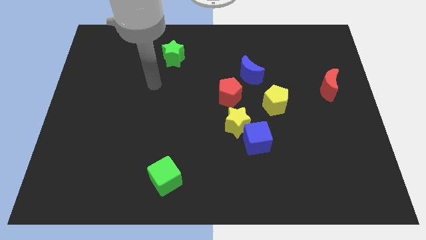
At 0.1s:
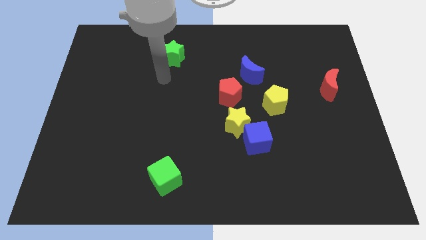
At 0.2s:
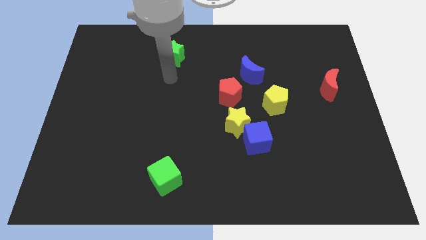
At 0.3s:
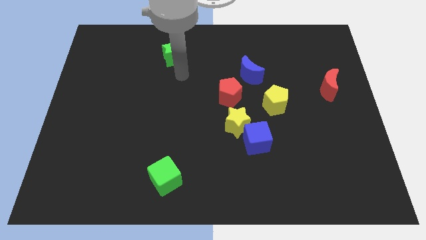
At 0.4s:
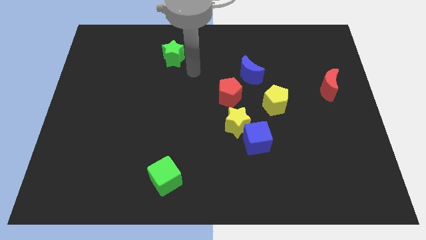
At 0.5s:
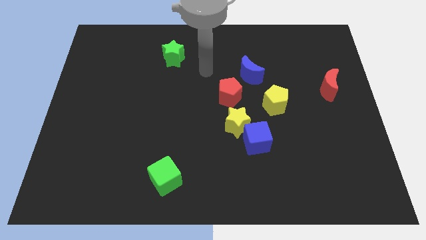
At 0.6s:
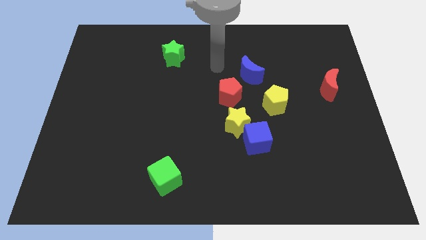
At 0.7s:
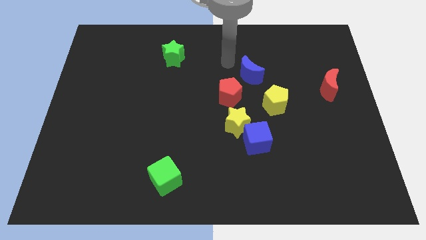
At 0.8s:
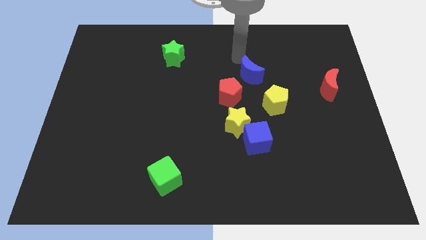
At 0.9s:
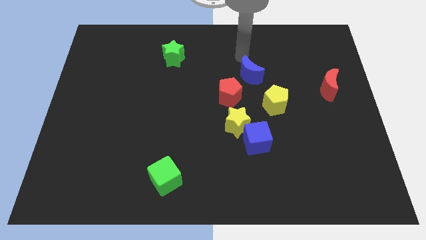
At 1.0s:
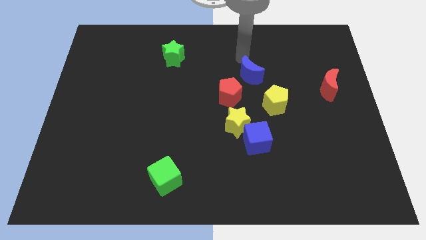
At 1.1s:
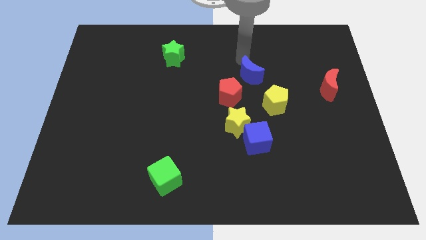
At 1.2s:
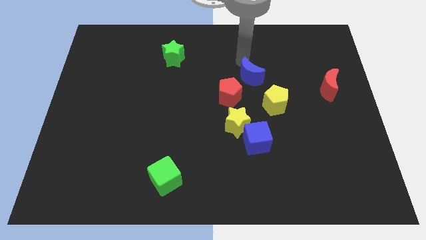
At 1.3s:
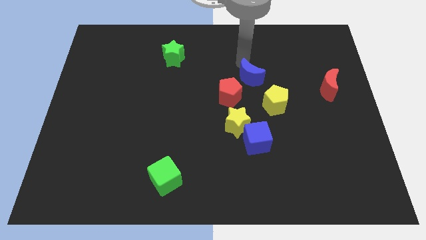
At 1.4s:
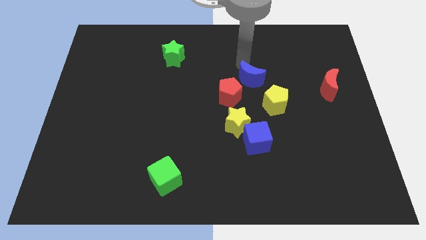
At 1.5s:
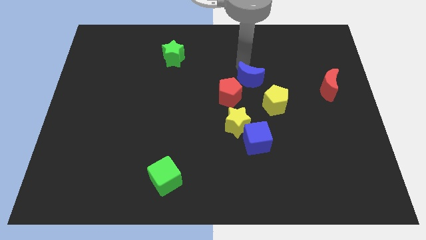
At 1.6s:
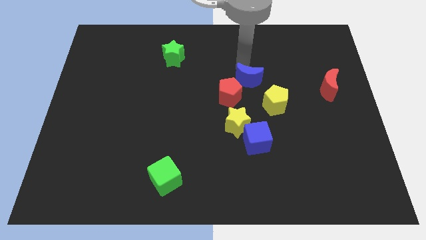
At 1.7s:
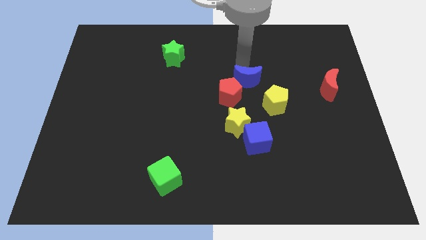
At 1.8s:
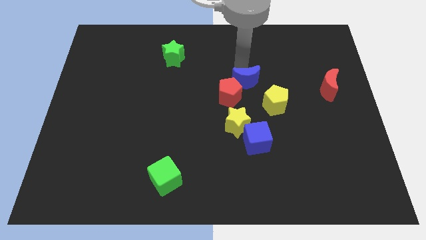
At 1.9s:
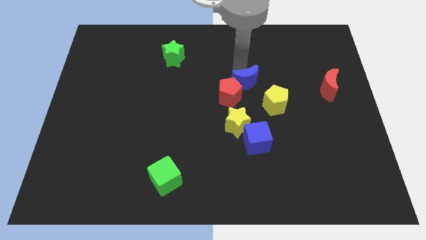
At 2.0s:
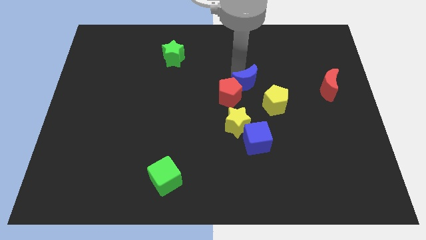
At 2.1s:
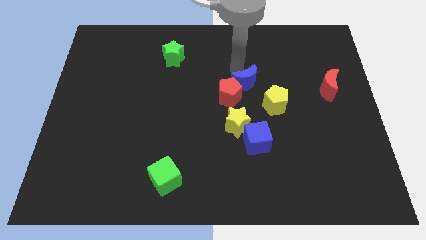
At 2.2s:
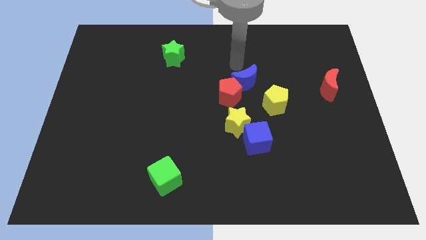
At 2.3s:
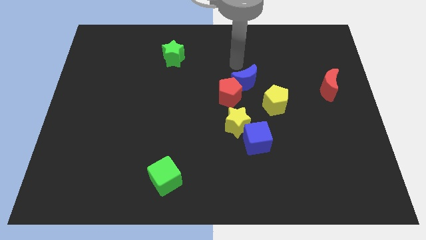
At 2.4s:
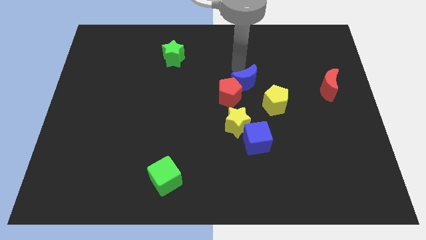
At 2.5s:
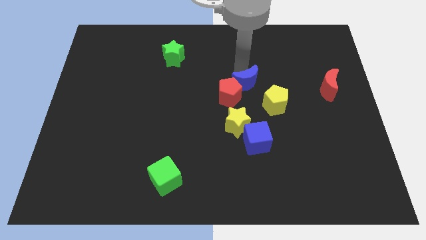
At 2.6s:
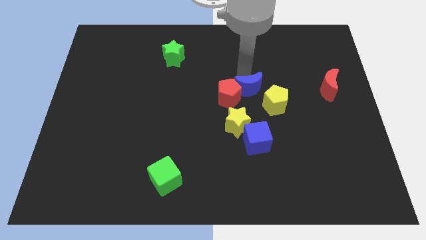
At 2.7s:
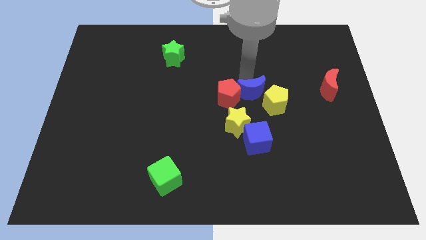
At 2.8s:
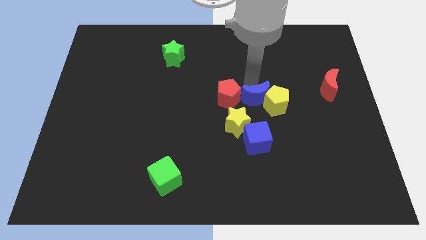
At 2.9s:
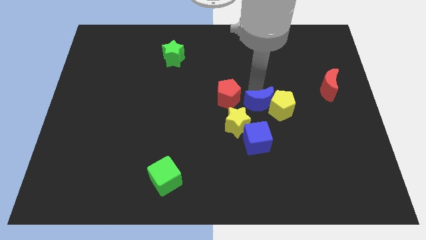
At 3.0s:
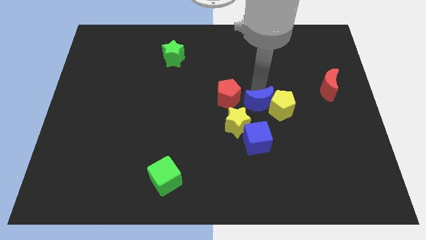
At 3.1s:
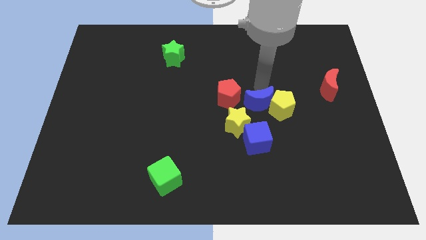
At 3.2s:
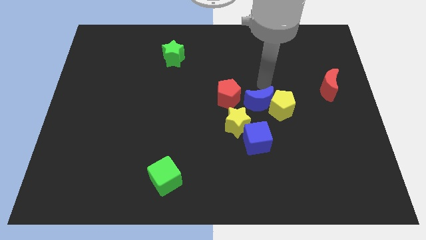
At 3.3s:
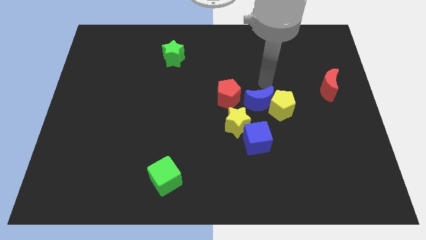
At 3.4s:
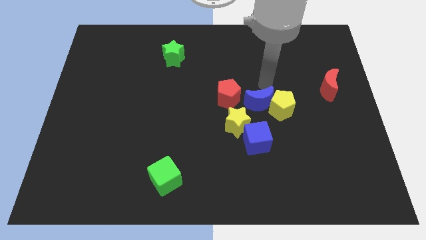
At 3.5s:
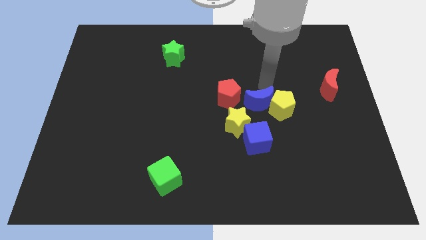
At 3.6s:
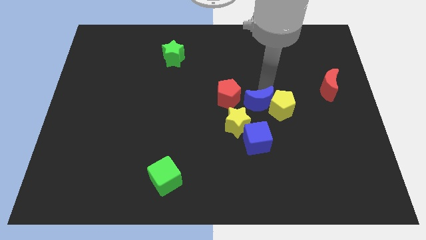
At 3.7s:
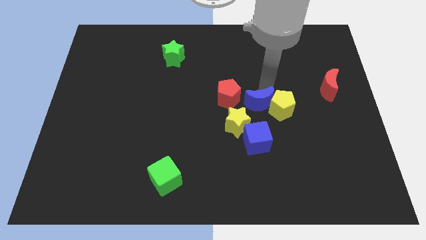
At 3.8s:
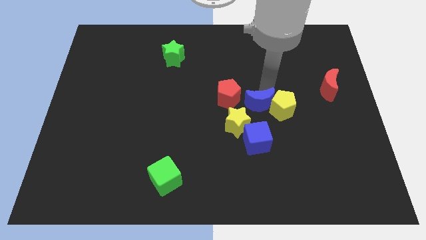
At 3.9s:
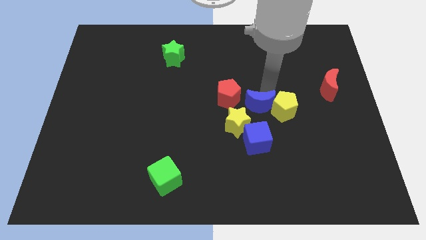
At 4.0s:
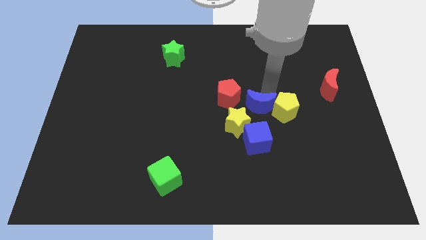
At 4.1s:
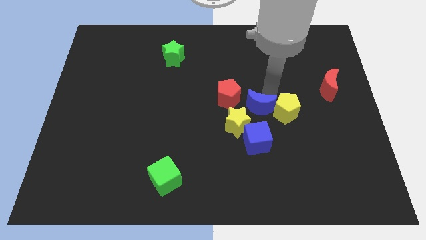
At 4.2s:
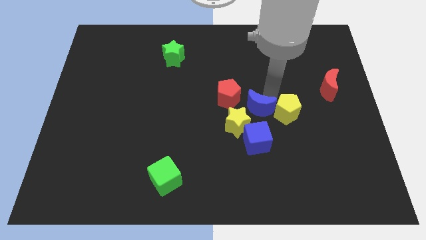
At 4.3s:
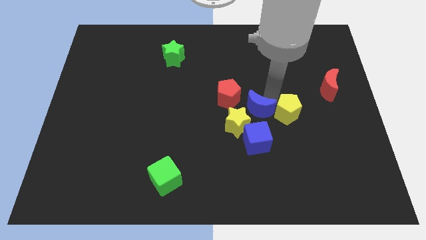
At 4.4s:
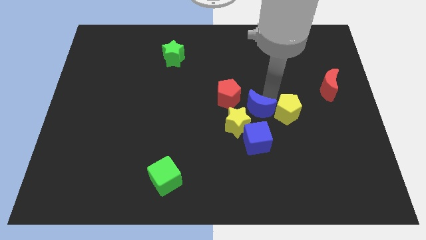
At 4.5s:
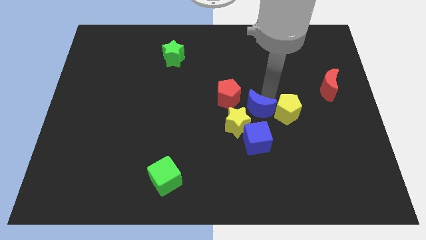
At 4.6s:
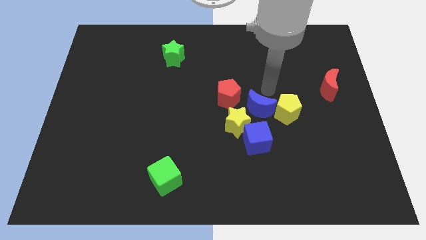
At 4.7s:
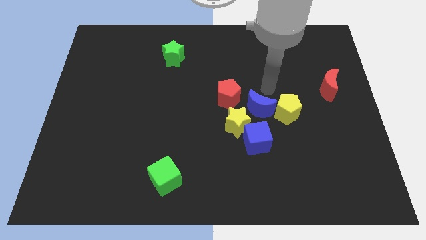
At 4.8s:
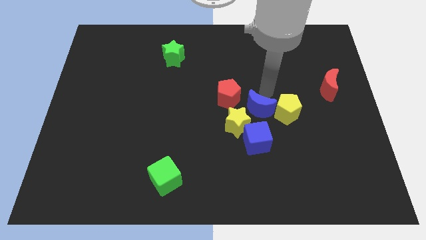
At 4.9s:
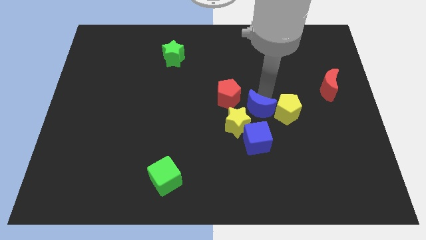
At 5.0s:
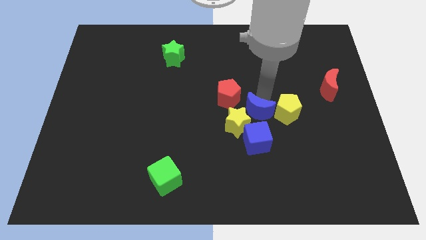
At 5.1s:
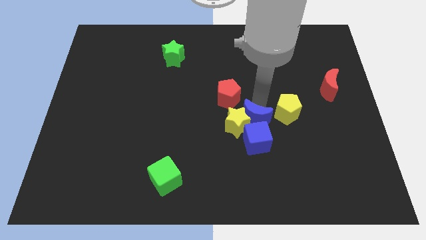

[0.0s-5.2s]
move the blue moon next to the blue cube

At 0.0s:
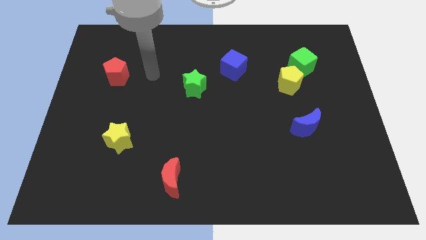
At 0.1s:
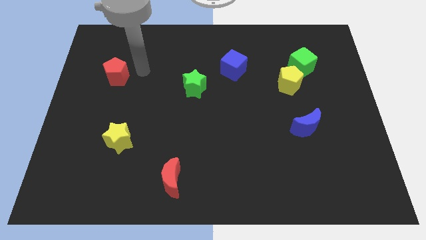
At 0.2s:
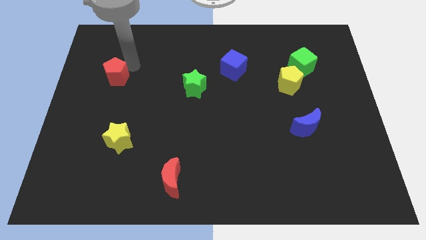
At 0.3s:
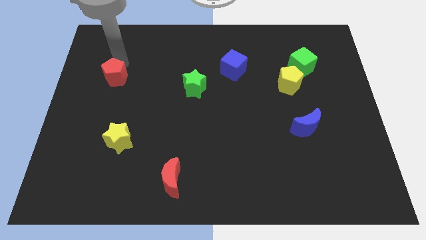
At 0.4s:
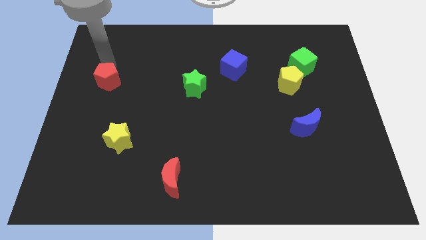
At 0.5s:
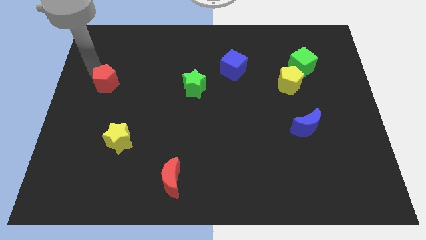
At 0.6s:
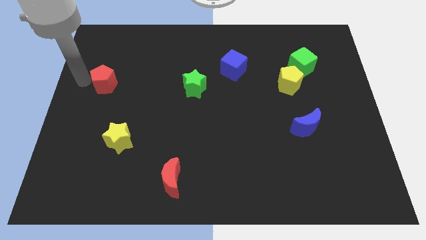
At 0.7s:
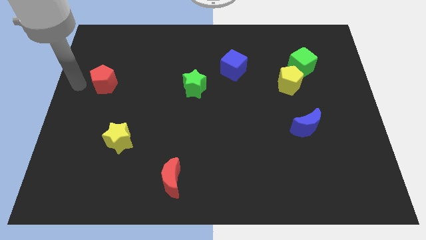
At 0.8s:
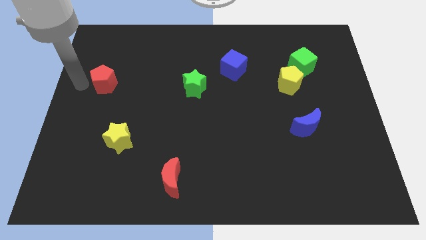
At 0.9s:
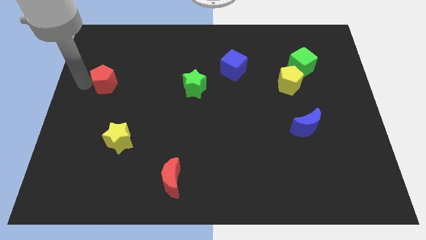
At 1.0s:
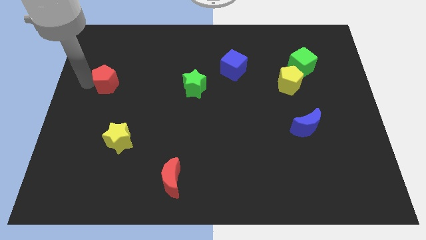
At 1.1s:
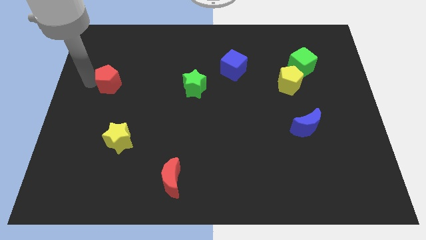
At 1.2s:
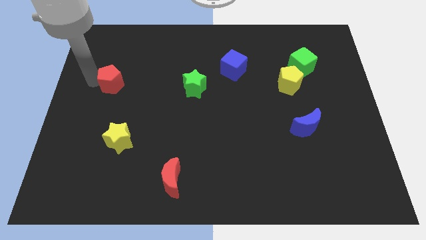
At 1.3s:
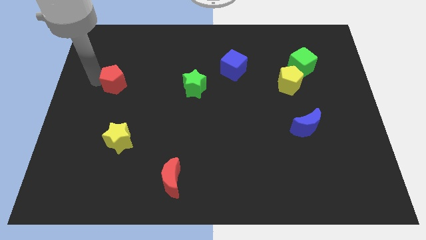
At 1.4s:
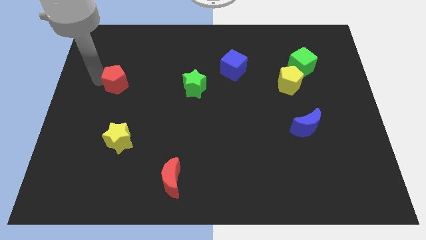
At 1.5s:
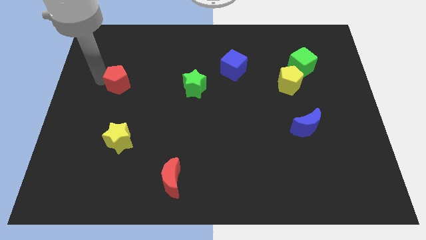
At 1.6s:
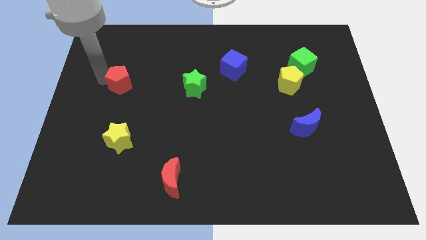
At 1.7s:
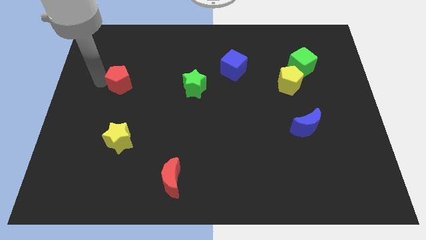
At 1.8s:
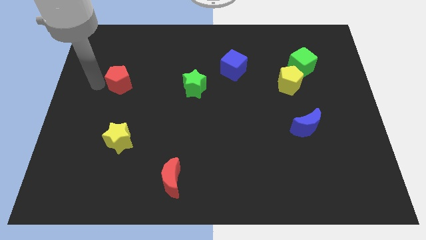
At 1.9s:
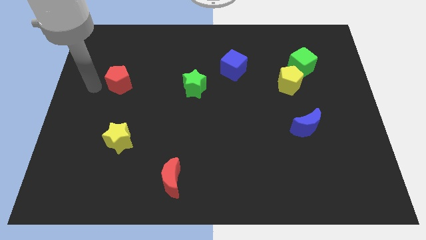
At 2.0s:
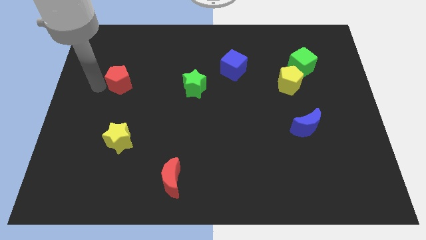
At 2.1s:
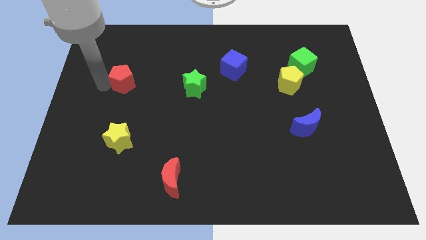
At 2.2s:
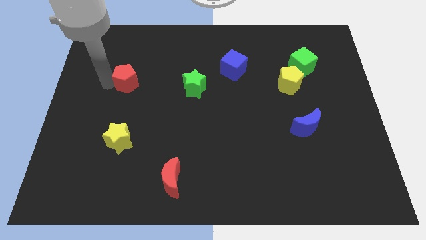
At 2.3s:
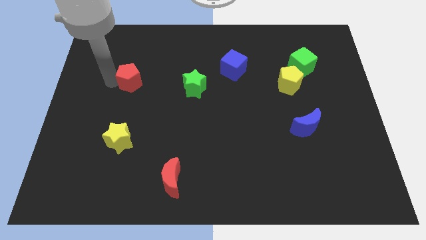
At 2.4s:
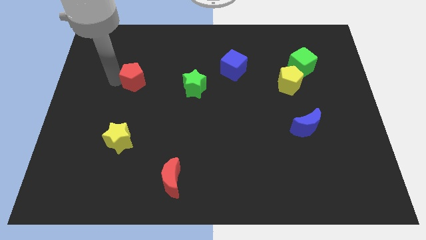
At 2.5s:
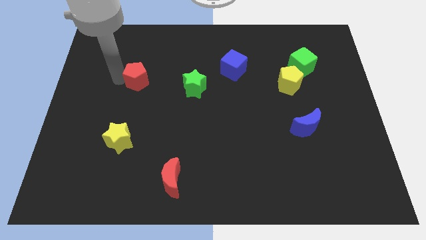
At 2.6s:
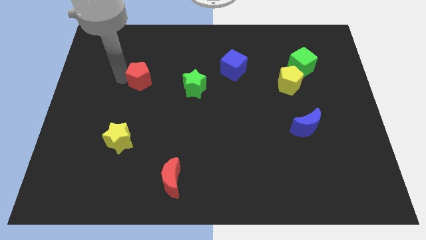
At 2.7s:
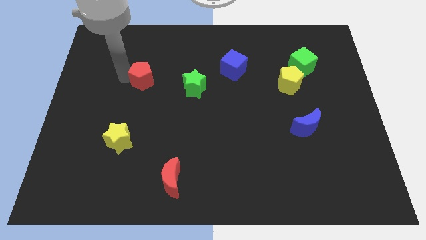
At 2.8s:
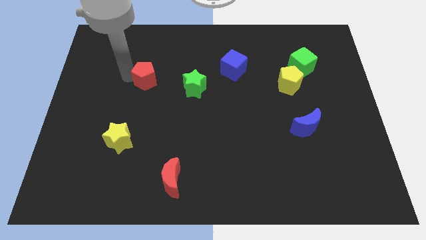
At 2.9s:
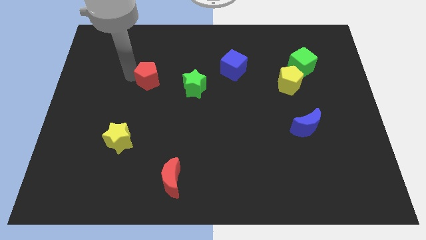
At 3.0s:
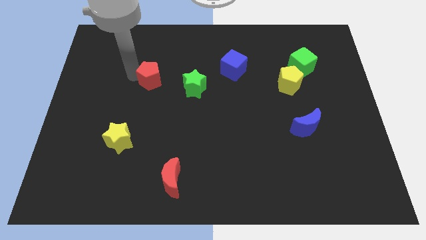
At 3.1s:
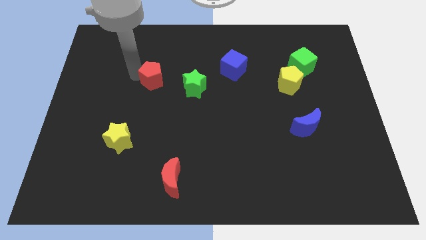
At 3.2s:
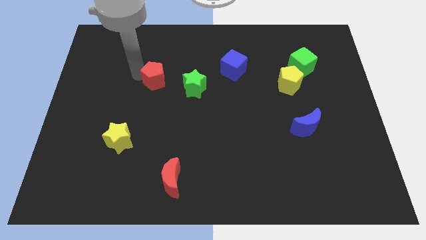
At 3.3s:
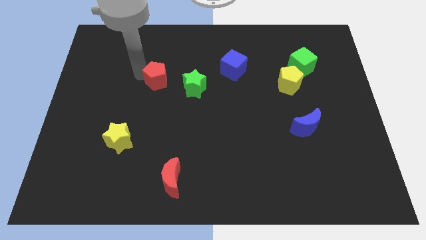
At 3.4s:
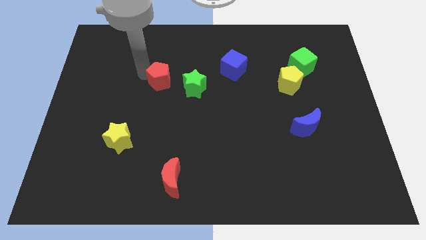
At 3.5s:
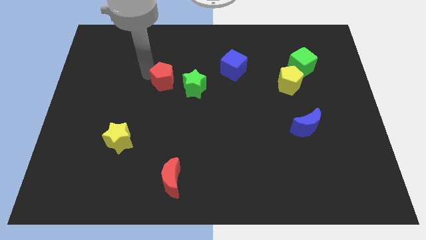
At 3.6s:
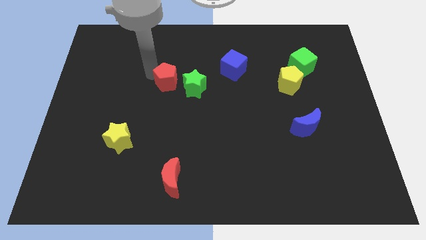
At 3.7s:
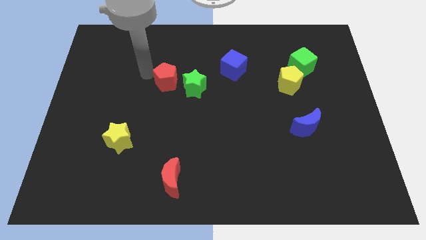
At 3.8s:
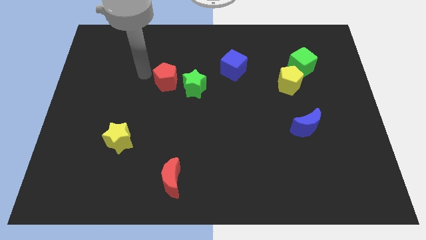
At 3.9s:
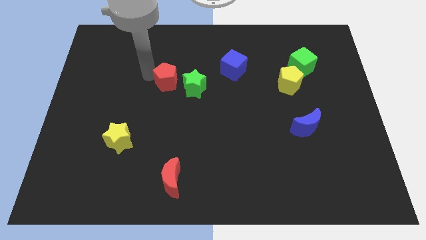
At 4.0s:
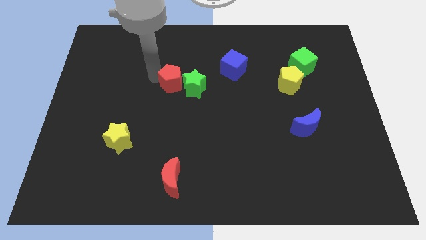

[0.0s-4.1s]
move the red pentagon towards the green star
